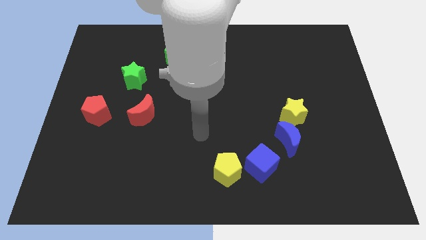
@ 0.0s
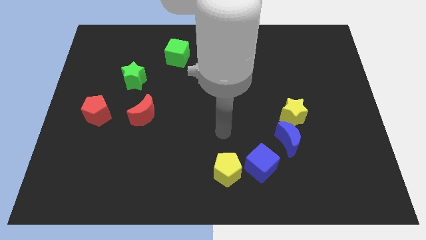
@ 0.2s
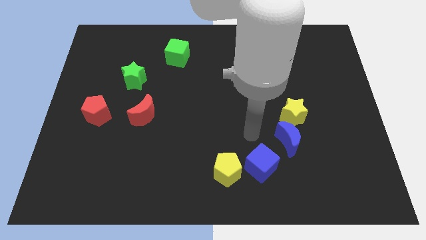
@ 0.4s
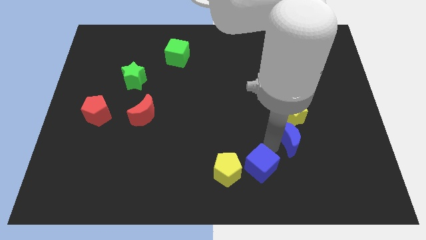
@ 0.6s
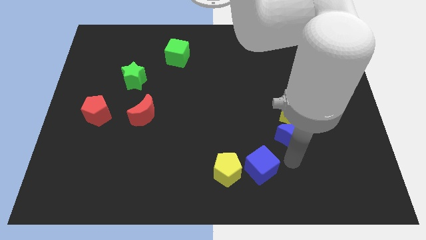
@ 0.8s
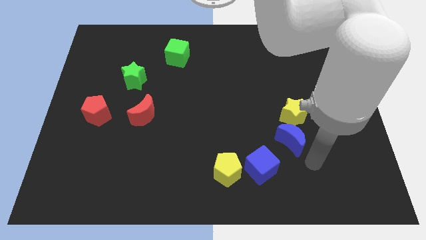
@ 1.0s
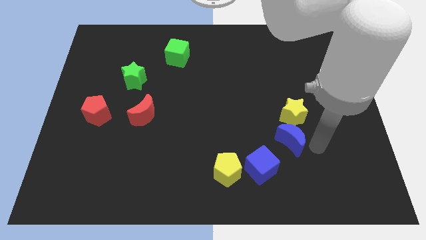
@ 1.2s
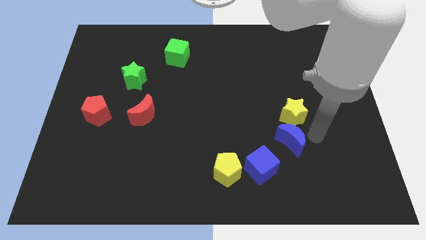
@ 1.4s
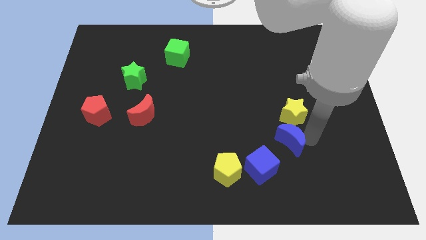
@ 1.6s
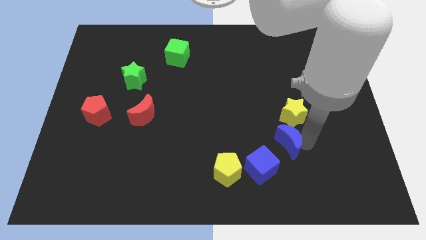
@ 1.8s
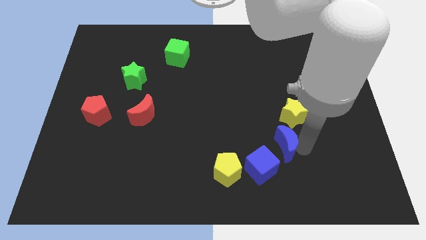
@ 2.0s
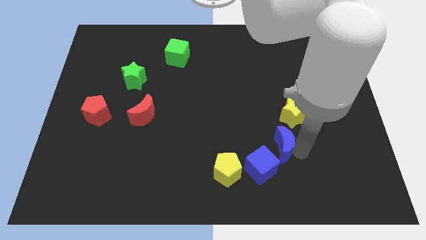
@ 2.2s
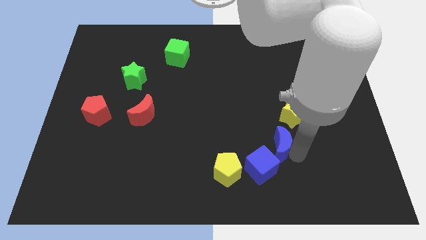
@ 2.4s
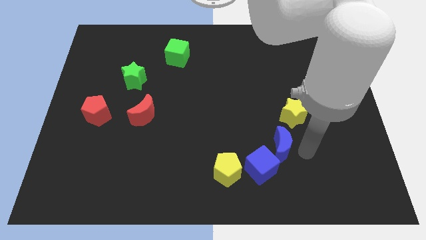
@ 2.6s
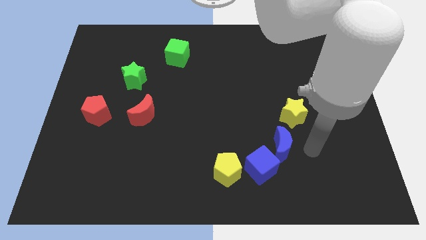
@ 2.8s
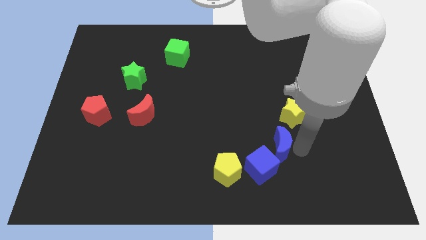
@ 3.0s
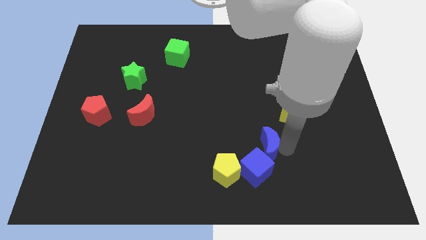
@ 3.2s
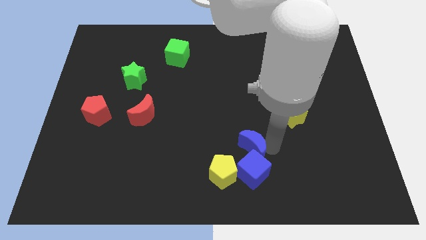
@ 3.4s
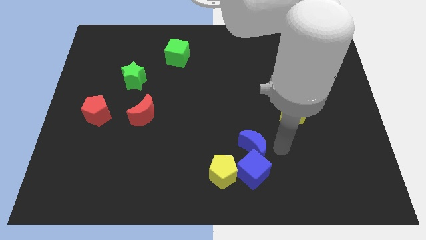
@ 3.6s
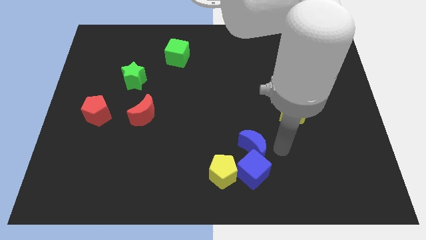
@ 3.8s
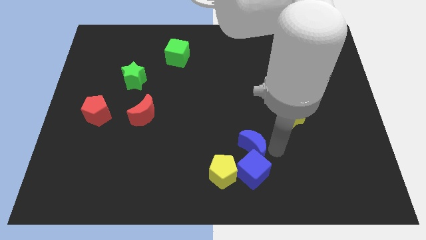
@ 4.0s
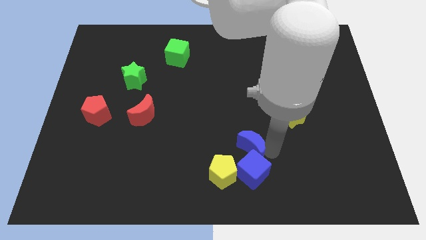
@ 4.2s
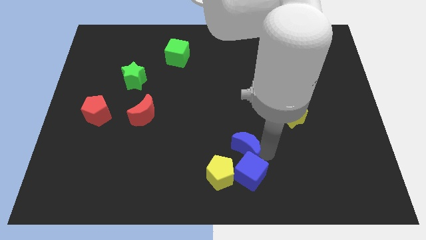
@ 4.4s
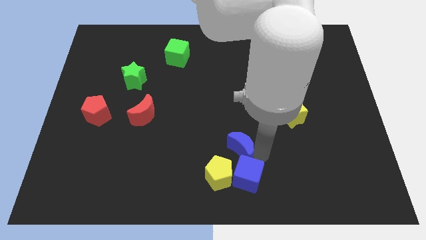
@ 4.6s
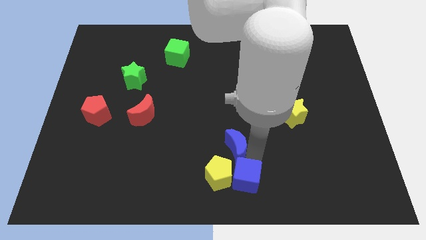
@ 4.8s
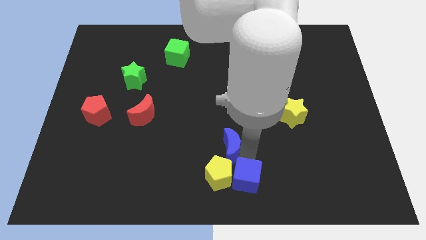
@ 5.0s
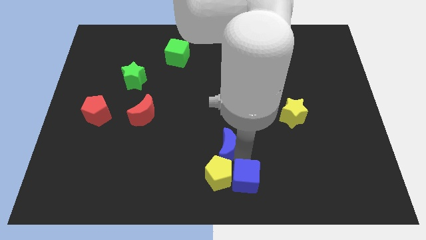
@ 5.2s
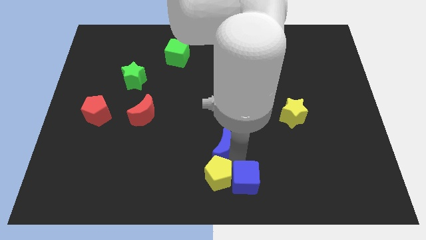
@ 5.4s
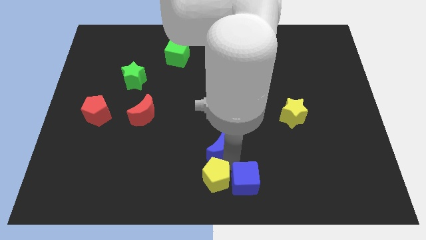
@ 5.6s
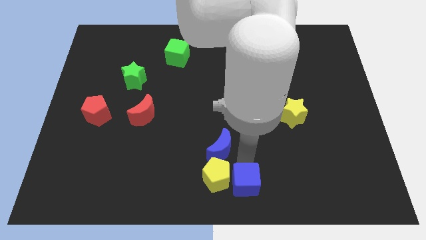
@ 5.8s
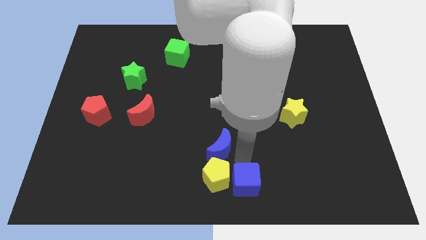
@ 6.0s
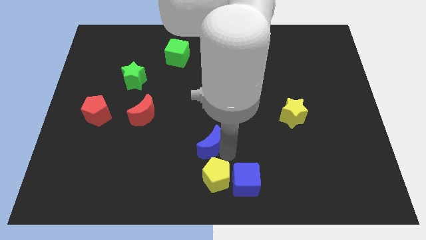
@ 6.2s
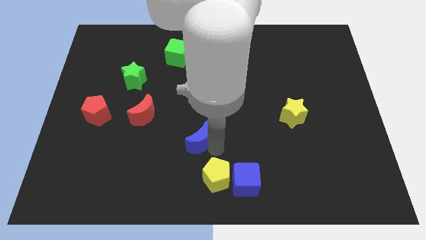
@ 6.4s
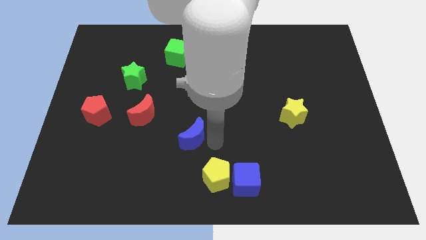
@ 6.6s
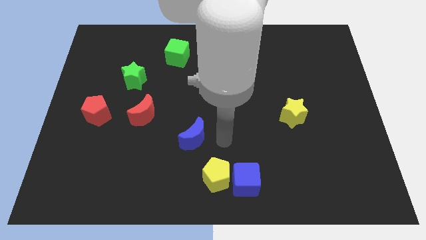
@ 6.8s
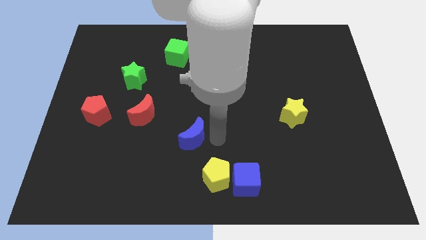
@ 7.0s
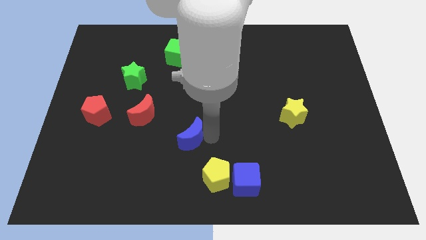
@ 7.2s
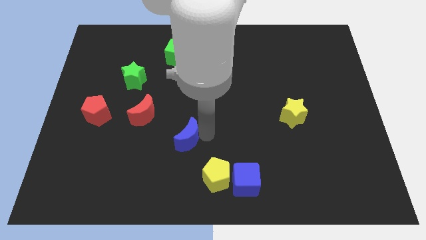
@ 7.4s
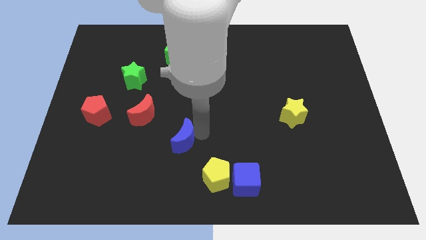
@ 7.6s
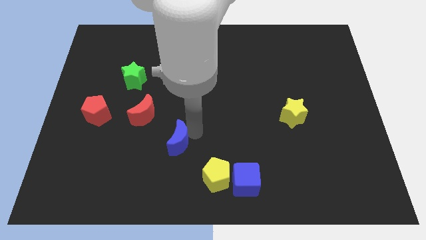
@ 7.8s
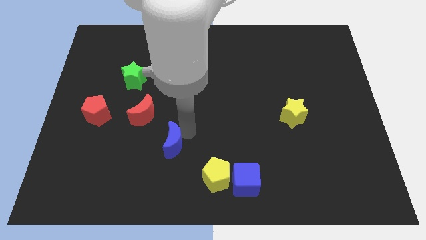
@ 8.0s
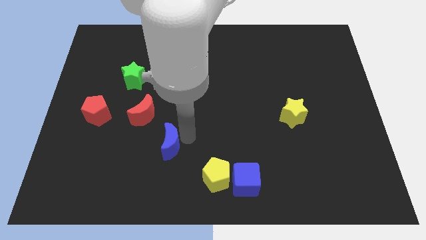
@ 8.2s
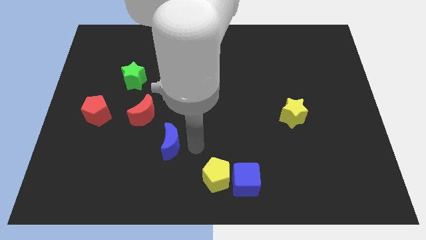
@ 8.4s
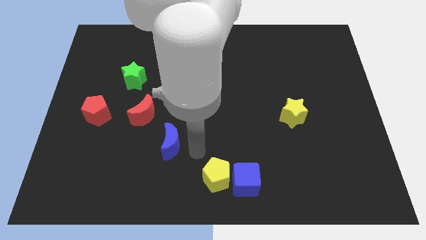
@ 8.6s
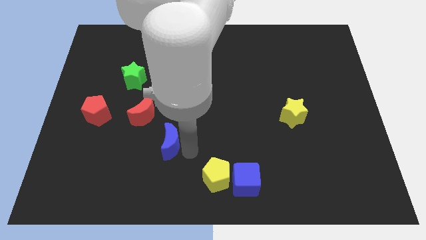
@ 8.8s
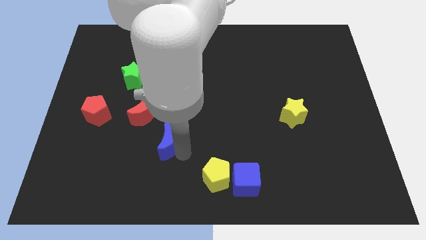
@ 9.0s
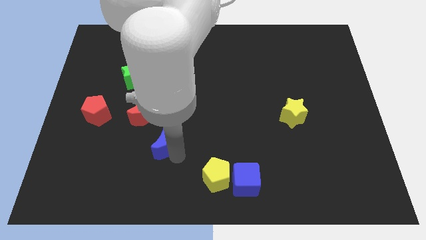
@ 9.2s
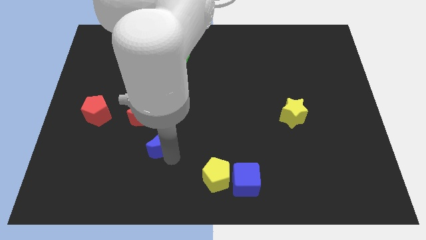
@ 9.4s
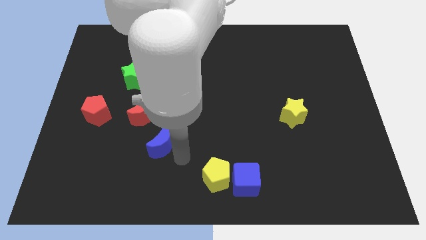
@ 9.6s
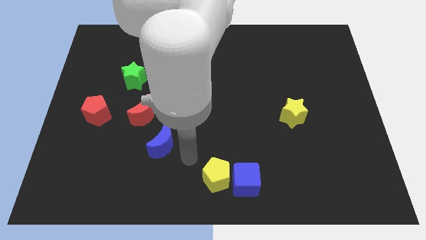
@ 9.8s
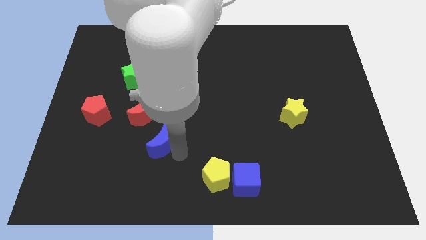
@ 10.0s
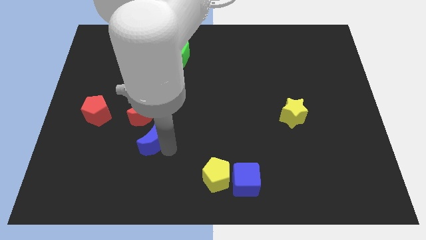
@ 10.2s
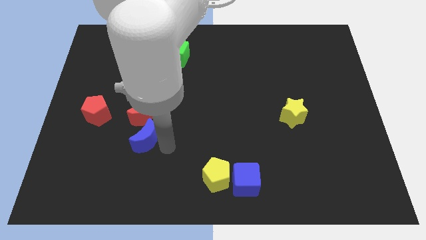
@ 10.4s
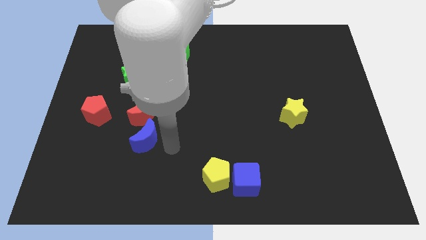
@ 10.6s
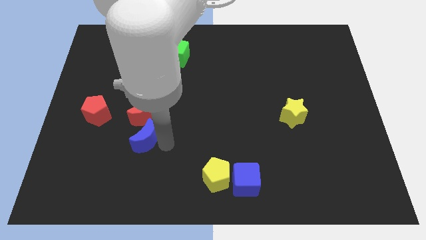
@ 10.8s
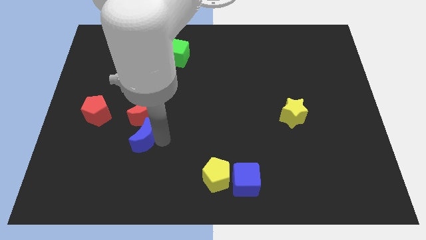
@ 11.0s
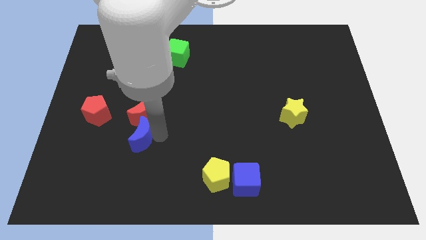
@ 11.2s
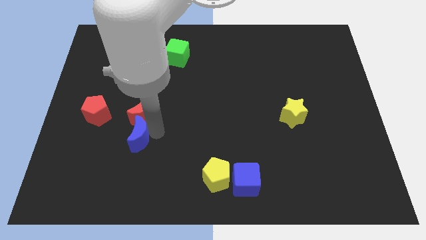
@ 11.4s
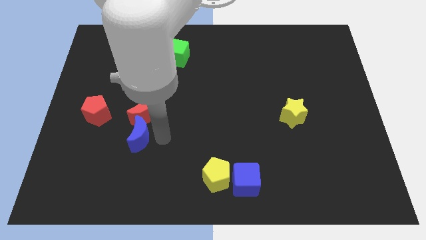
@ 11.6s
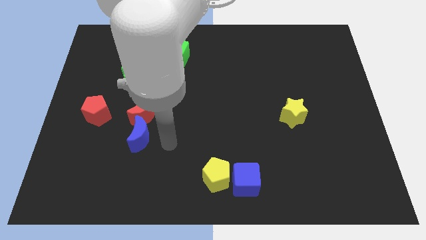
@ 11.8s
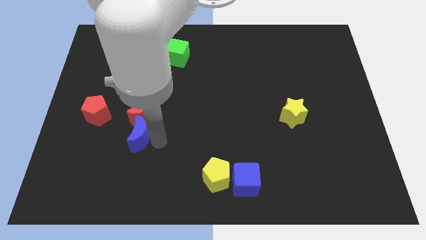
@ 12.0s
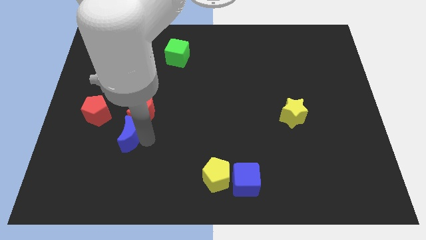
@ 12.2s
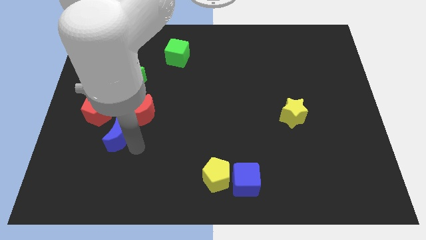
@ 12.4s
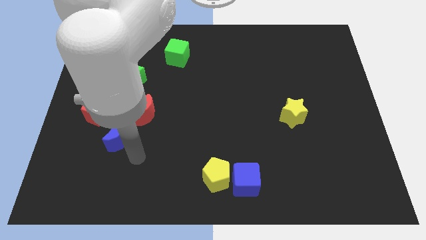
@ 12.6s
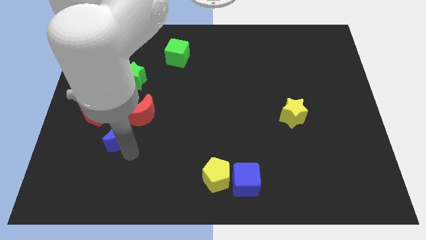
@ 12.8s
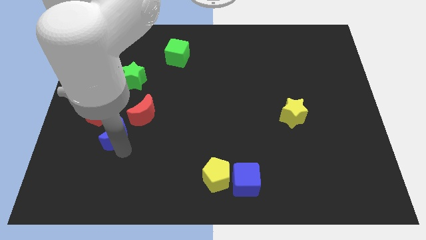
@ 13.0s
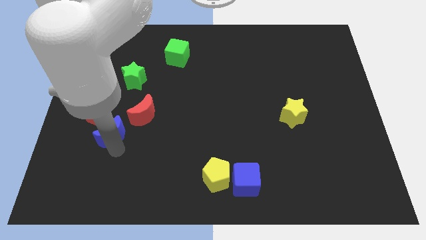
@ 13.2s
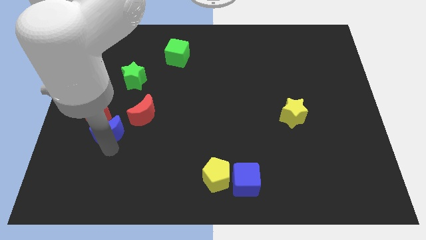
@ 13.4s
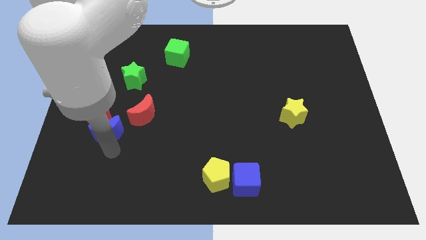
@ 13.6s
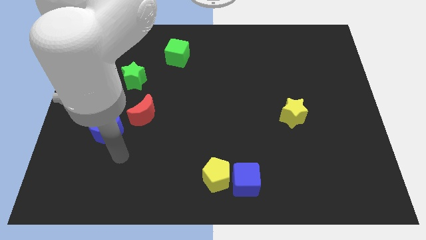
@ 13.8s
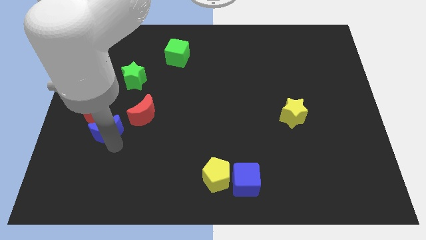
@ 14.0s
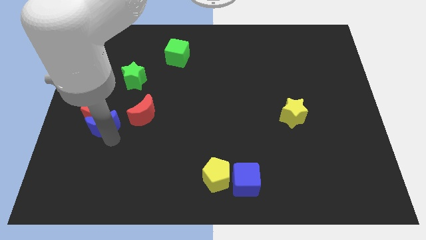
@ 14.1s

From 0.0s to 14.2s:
slide the blue moon towards the red pentagon
